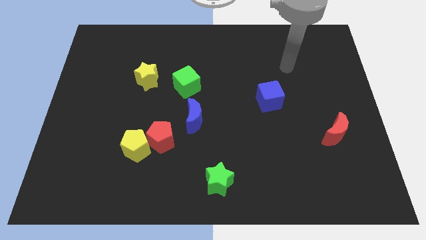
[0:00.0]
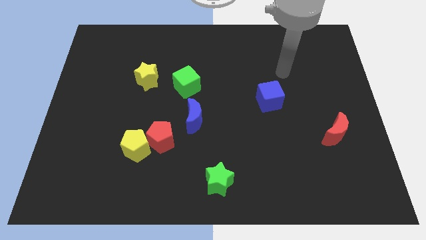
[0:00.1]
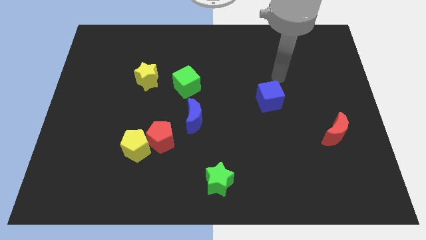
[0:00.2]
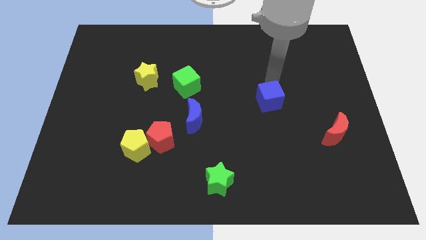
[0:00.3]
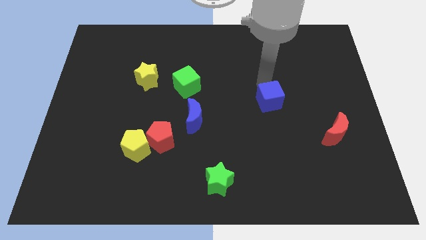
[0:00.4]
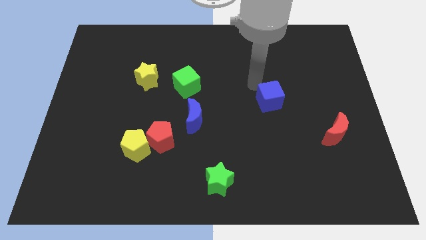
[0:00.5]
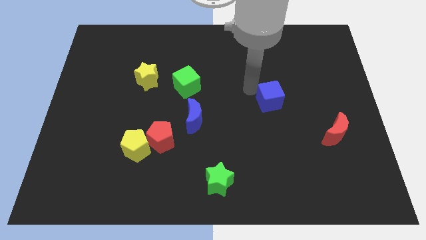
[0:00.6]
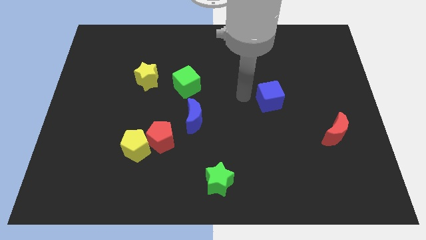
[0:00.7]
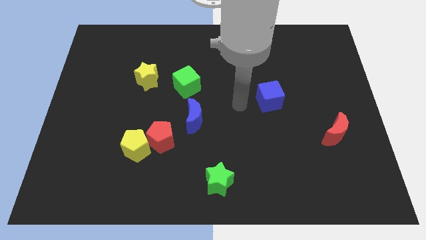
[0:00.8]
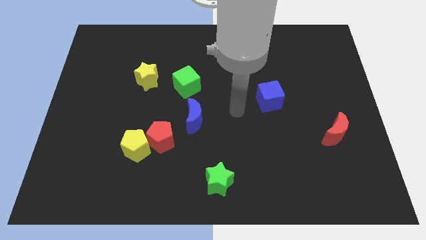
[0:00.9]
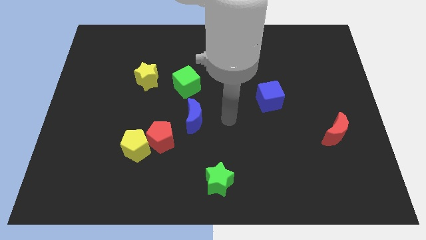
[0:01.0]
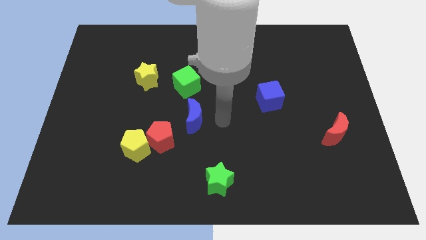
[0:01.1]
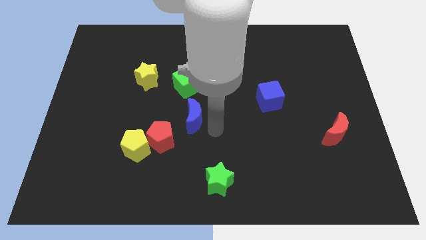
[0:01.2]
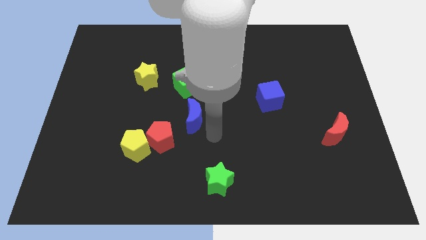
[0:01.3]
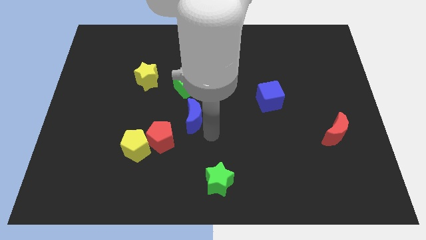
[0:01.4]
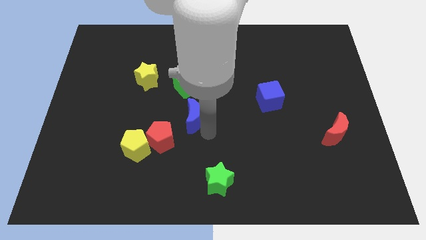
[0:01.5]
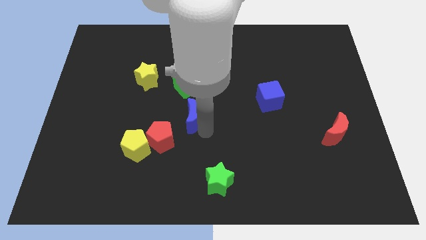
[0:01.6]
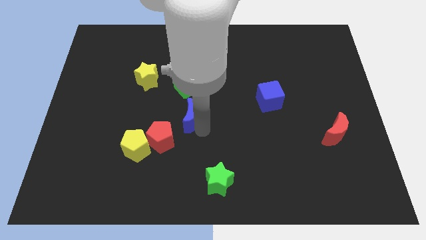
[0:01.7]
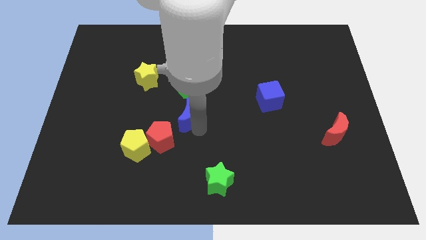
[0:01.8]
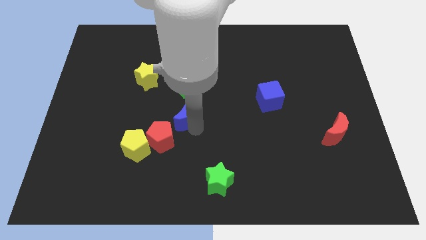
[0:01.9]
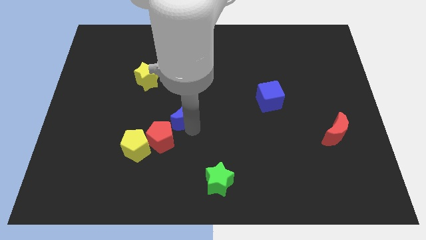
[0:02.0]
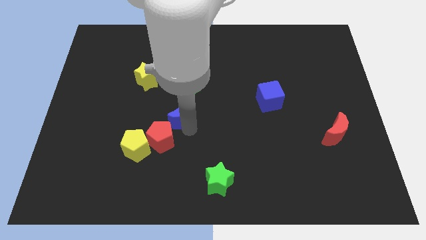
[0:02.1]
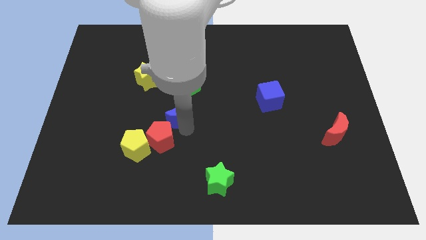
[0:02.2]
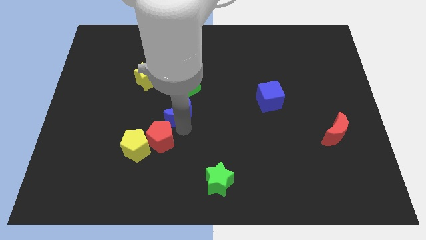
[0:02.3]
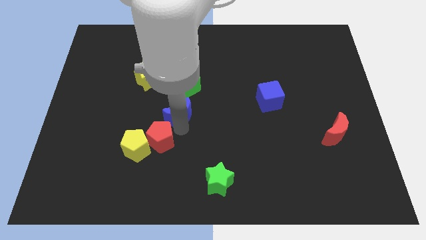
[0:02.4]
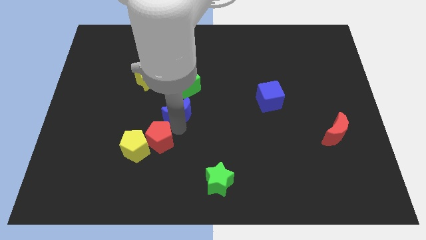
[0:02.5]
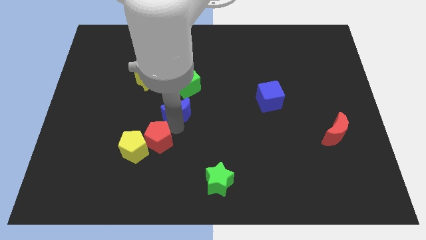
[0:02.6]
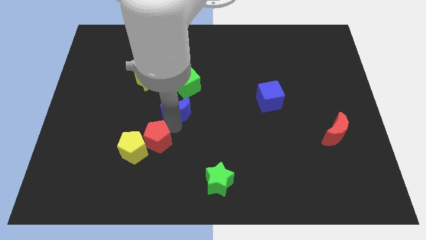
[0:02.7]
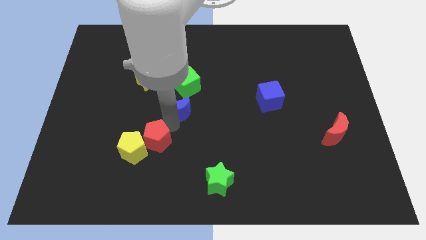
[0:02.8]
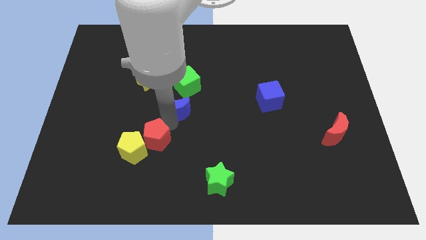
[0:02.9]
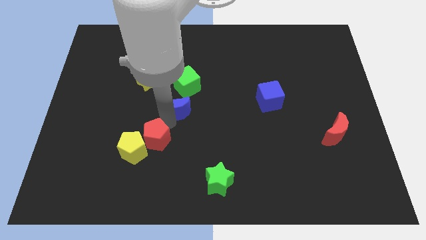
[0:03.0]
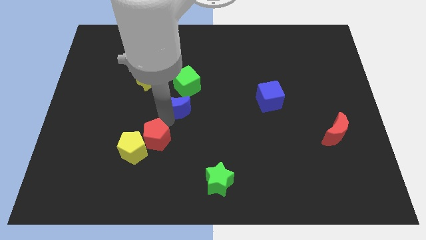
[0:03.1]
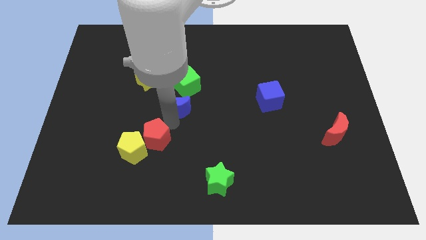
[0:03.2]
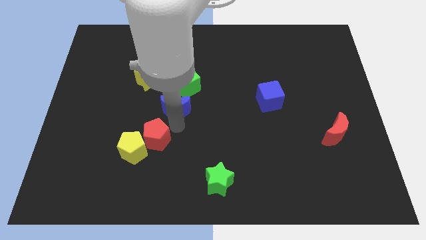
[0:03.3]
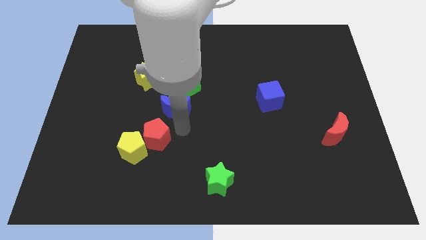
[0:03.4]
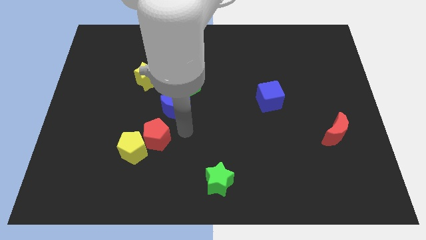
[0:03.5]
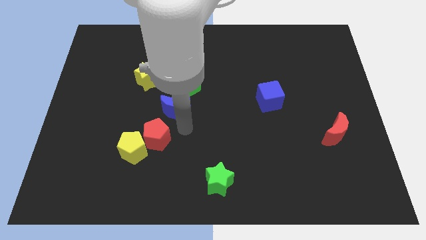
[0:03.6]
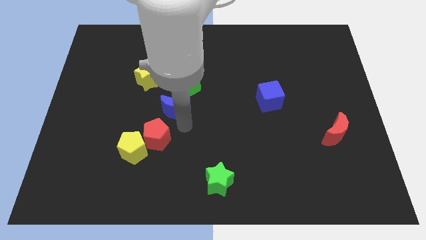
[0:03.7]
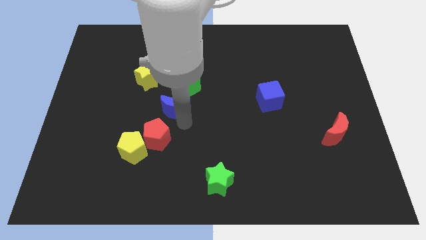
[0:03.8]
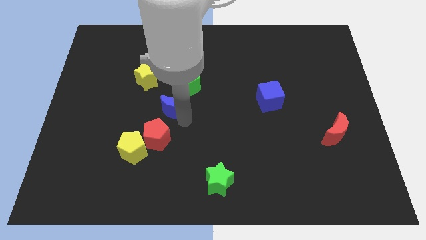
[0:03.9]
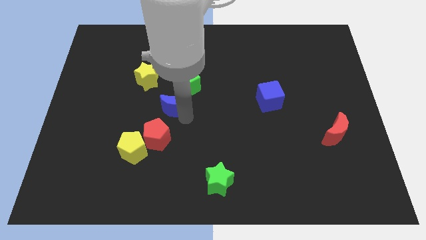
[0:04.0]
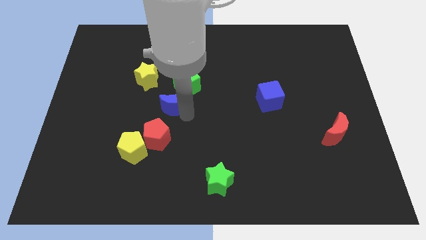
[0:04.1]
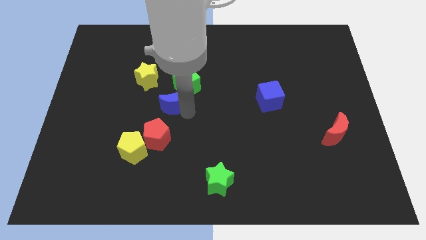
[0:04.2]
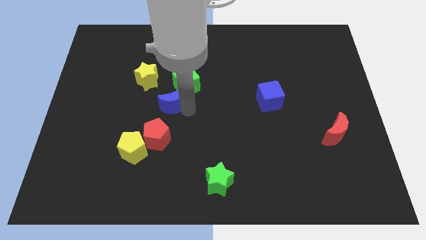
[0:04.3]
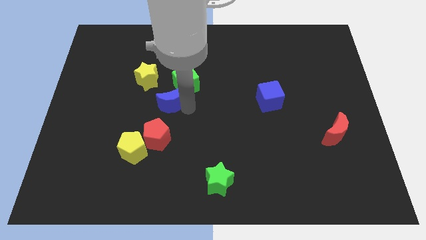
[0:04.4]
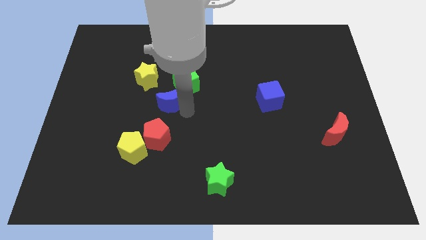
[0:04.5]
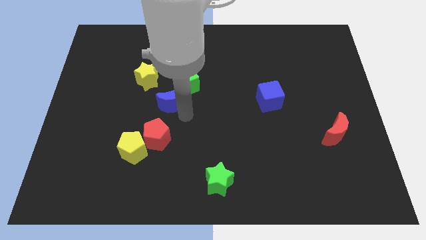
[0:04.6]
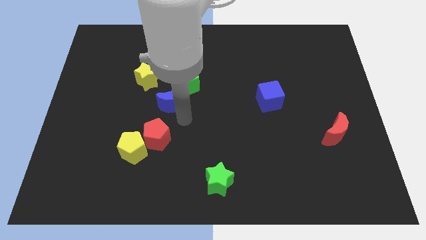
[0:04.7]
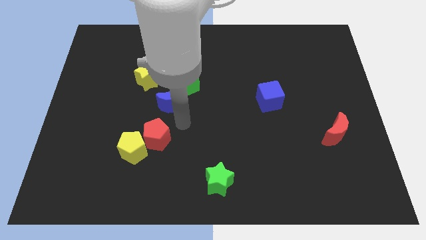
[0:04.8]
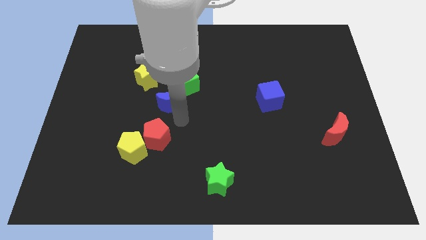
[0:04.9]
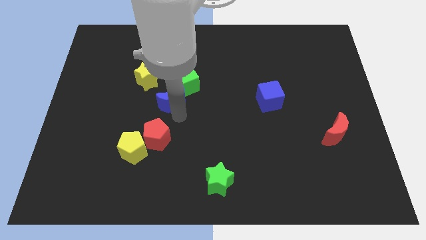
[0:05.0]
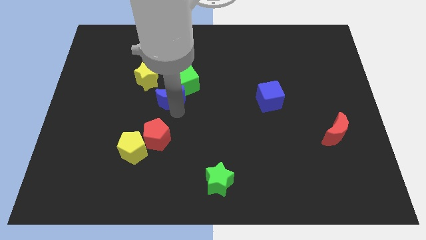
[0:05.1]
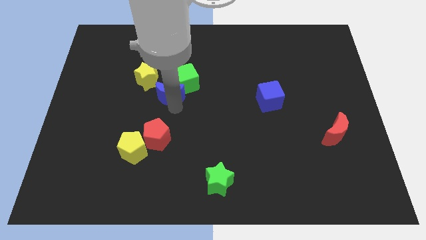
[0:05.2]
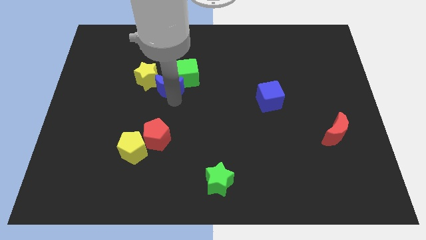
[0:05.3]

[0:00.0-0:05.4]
move the blue moon next to the yellow star

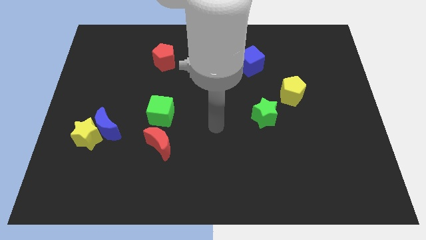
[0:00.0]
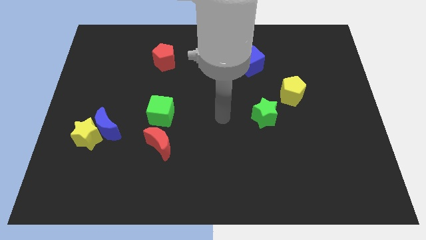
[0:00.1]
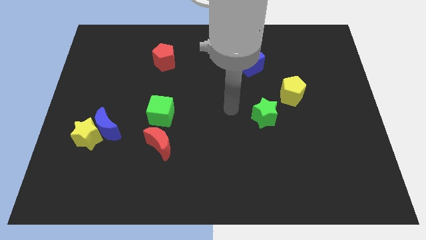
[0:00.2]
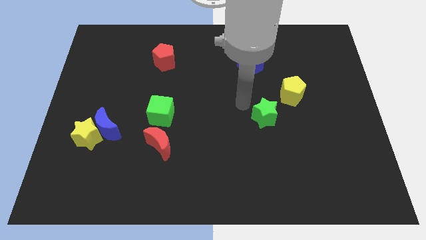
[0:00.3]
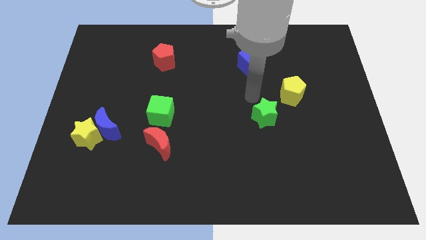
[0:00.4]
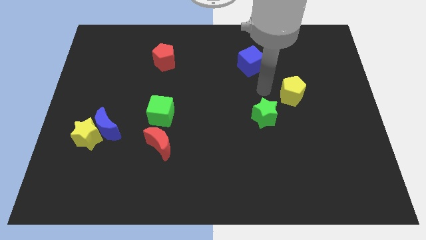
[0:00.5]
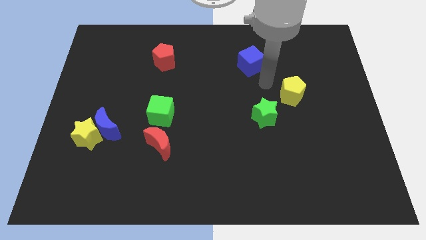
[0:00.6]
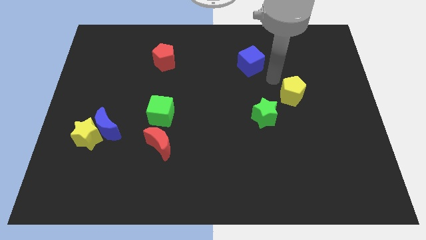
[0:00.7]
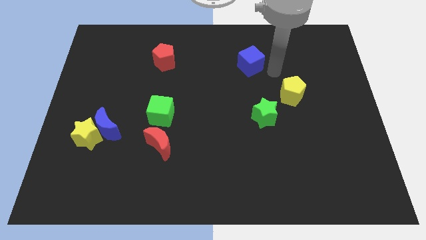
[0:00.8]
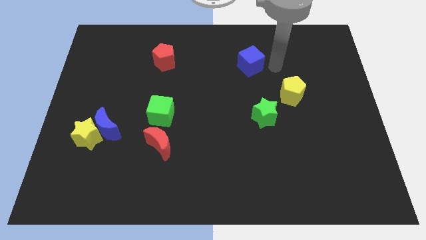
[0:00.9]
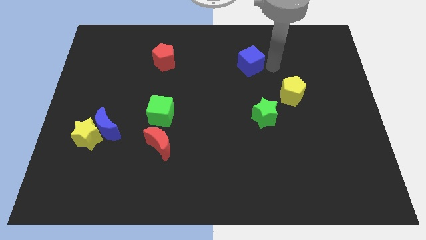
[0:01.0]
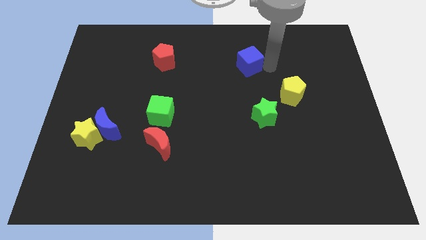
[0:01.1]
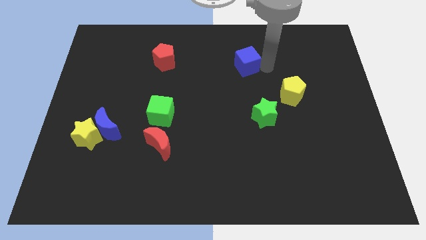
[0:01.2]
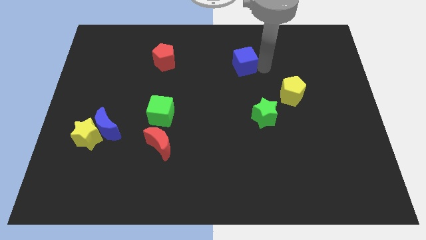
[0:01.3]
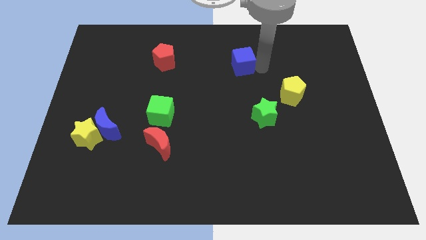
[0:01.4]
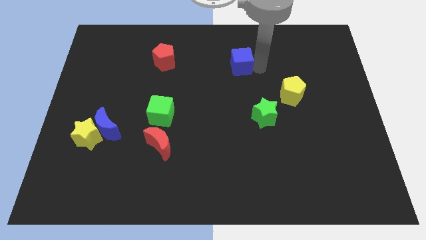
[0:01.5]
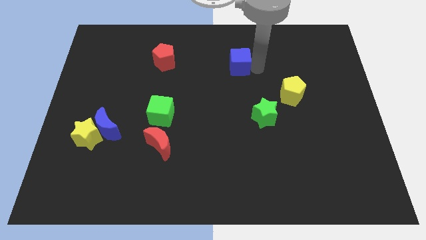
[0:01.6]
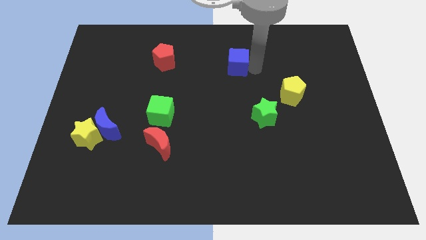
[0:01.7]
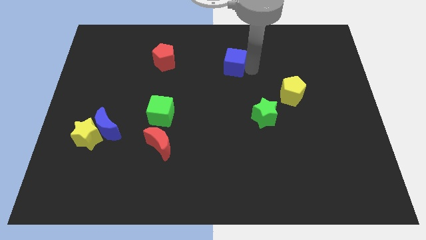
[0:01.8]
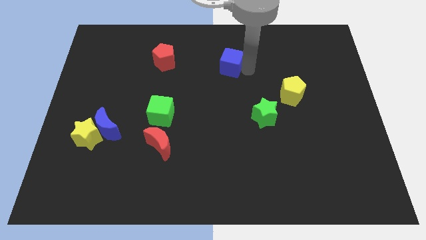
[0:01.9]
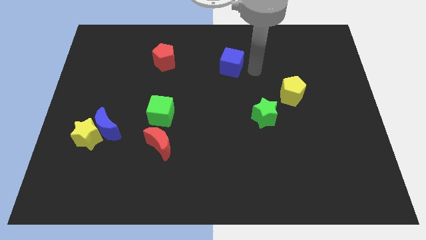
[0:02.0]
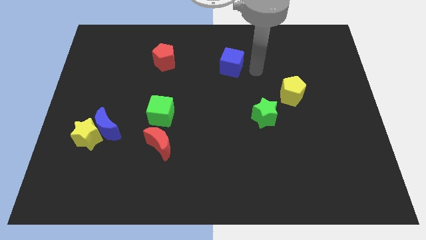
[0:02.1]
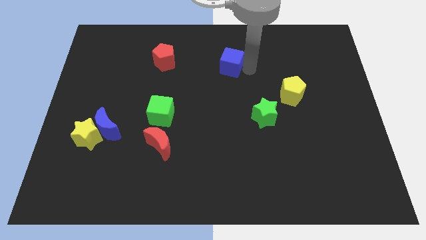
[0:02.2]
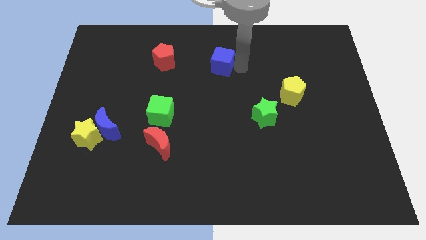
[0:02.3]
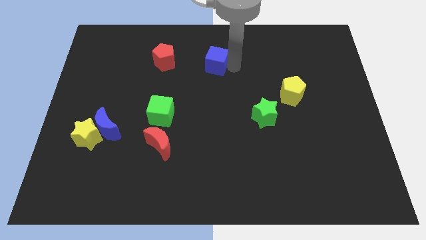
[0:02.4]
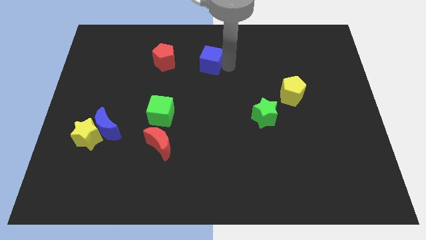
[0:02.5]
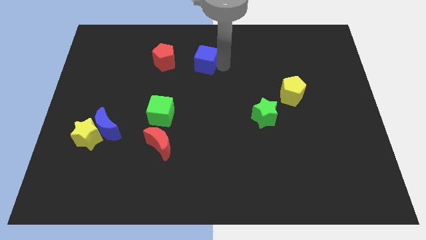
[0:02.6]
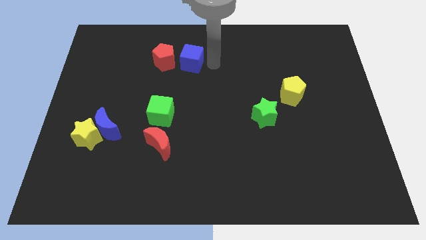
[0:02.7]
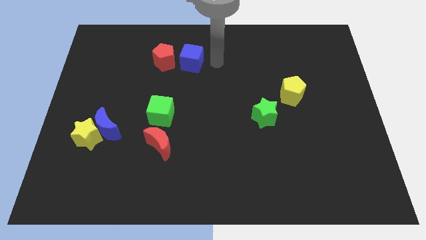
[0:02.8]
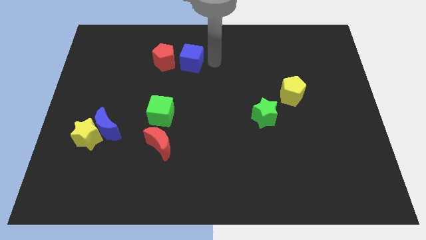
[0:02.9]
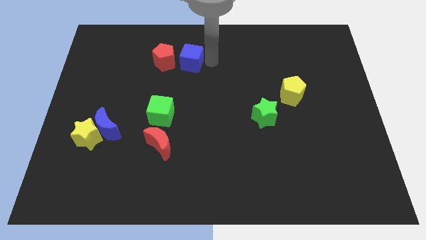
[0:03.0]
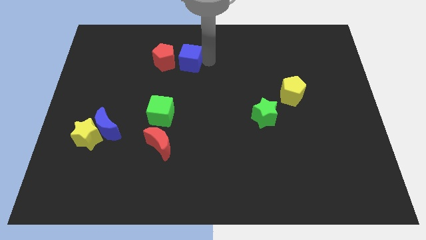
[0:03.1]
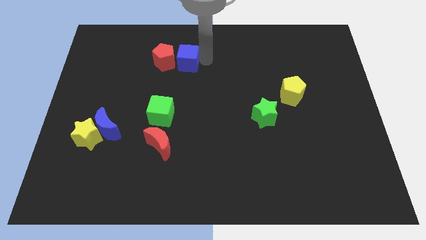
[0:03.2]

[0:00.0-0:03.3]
put the blue cube to the red pentagon
